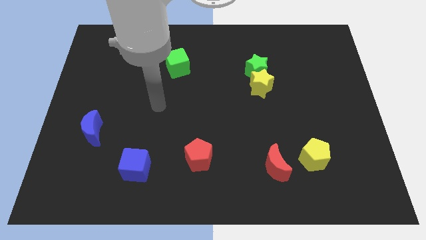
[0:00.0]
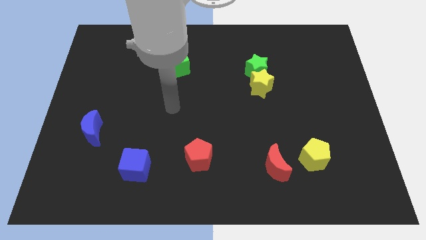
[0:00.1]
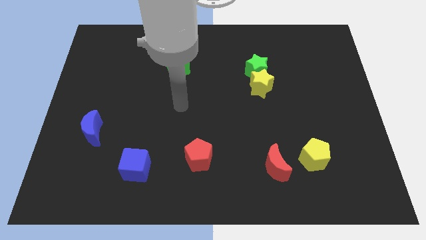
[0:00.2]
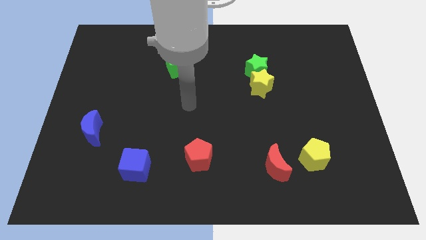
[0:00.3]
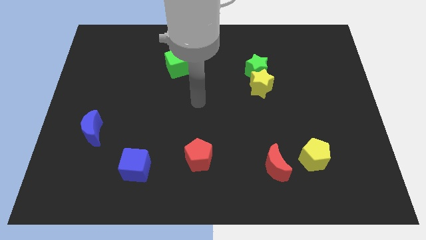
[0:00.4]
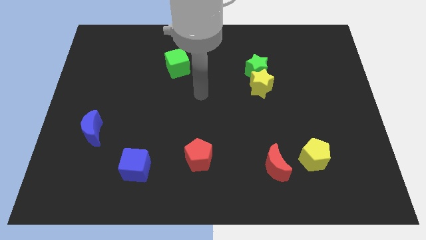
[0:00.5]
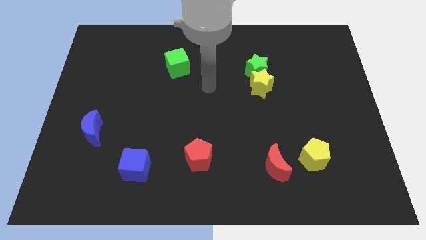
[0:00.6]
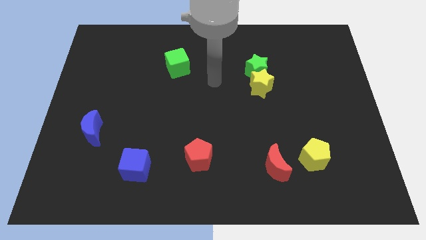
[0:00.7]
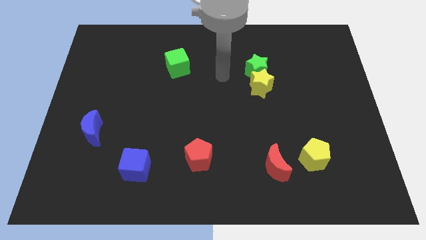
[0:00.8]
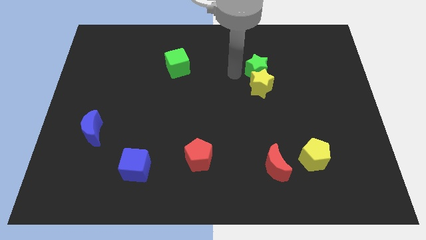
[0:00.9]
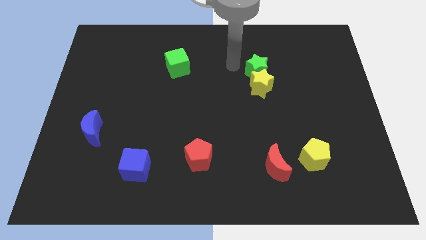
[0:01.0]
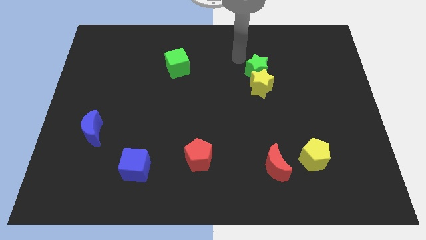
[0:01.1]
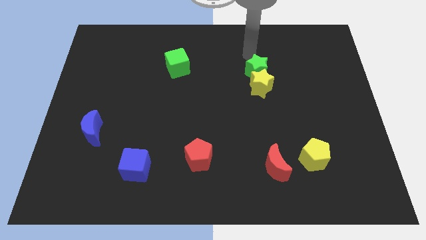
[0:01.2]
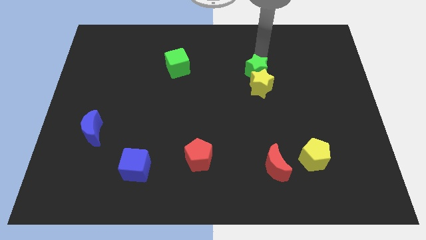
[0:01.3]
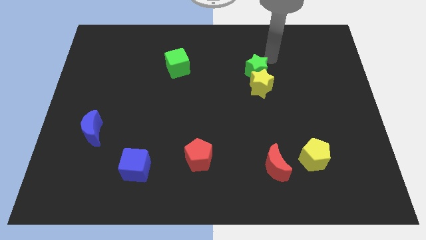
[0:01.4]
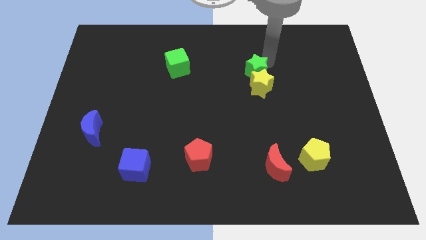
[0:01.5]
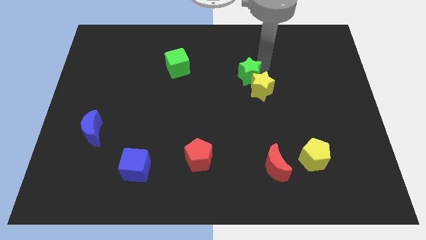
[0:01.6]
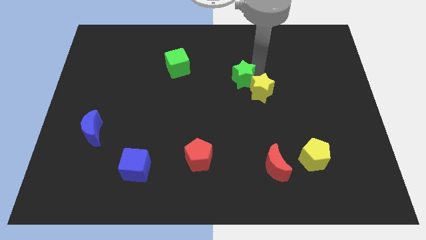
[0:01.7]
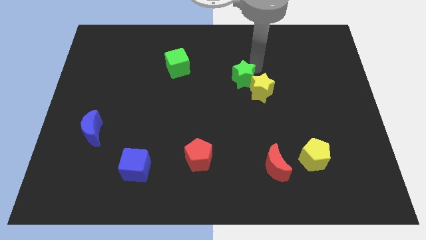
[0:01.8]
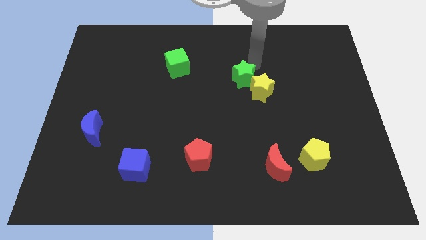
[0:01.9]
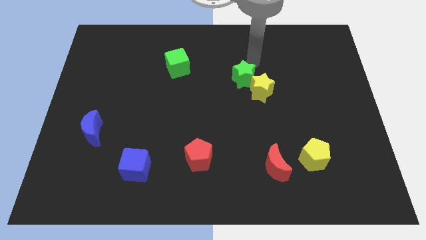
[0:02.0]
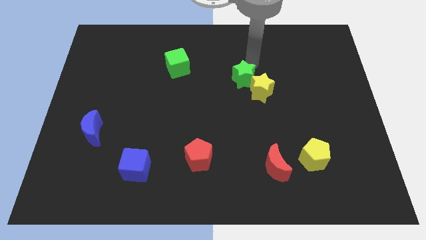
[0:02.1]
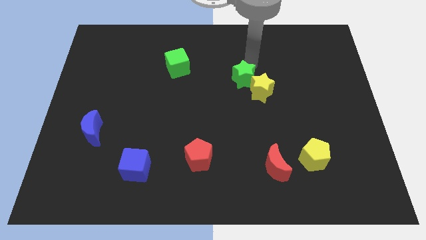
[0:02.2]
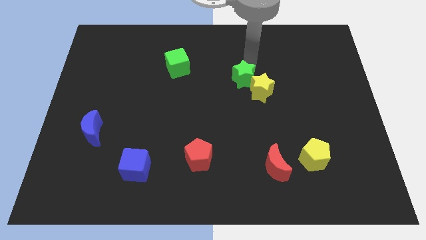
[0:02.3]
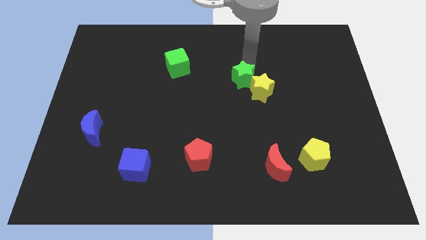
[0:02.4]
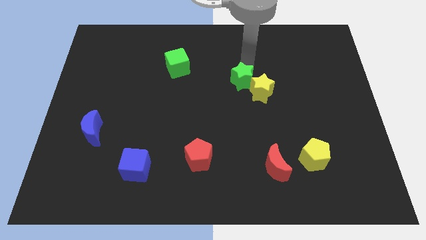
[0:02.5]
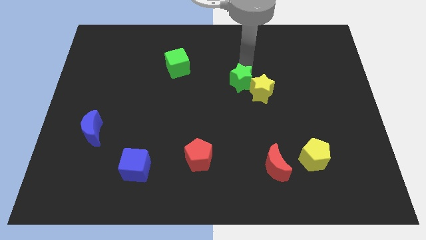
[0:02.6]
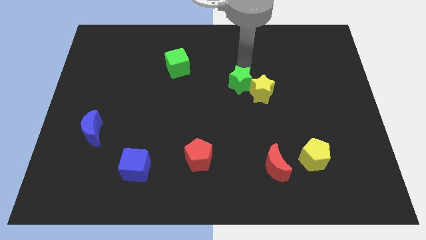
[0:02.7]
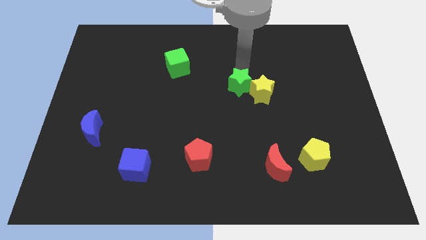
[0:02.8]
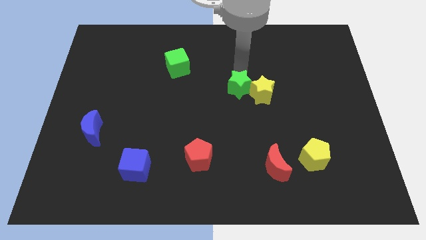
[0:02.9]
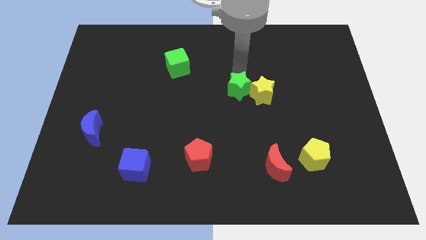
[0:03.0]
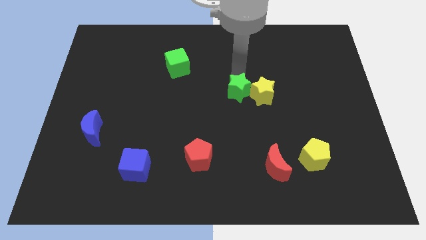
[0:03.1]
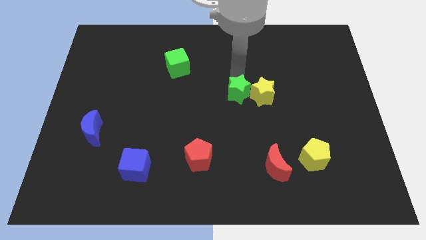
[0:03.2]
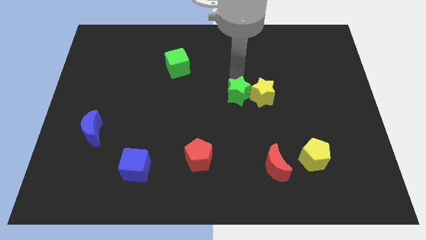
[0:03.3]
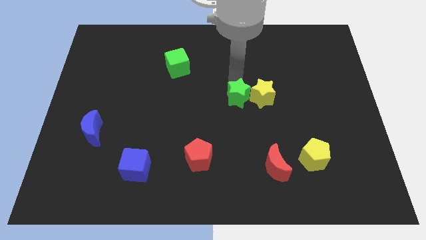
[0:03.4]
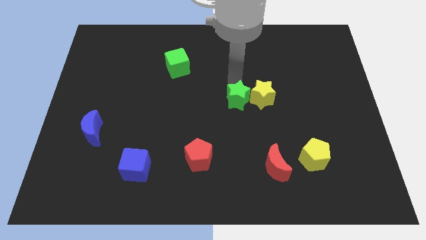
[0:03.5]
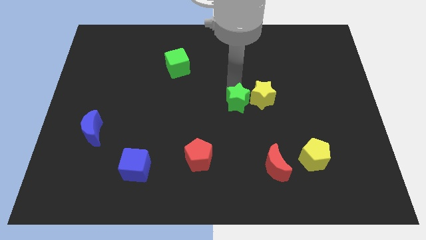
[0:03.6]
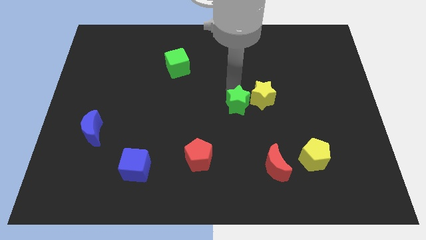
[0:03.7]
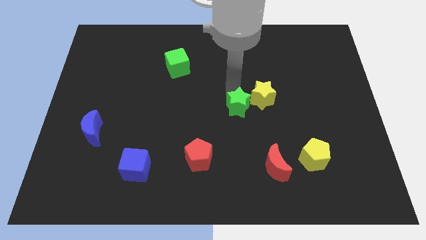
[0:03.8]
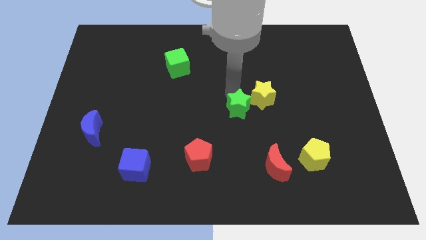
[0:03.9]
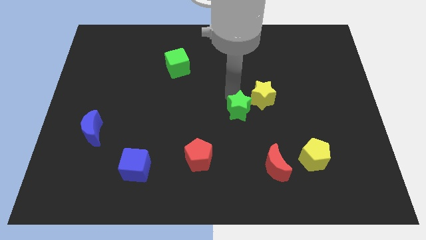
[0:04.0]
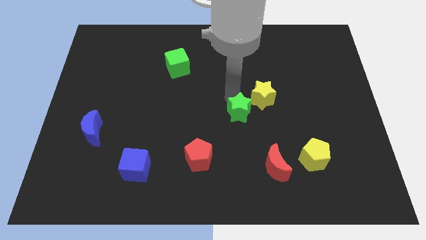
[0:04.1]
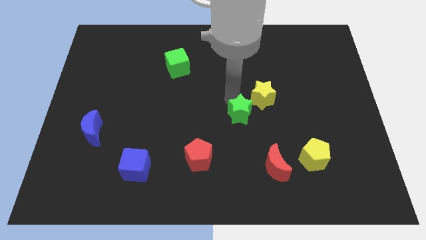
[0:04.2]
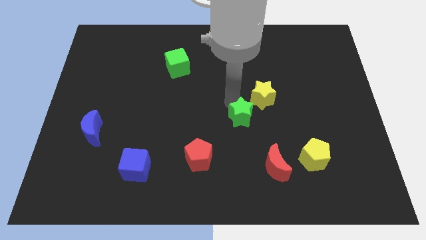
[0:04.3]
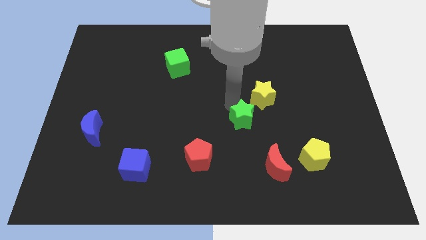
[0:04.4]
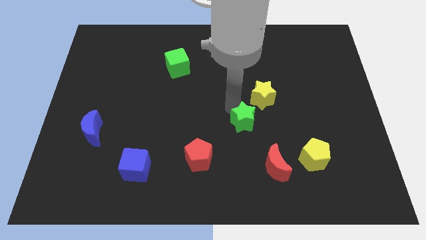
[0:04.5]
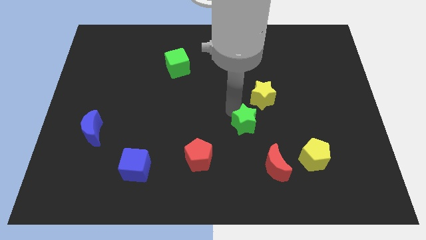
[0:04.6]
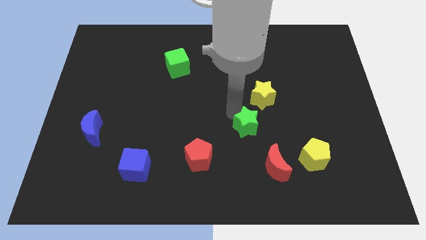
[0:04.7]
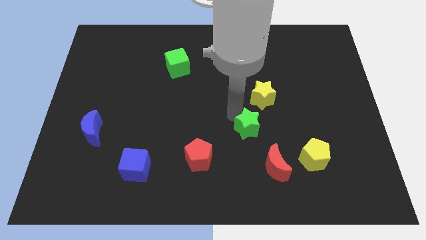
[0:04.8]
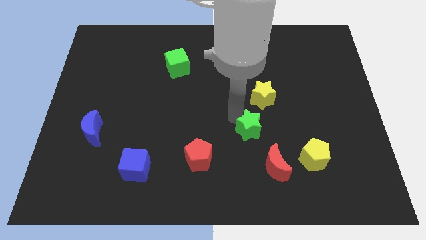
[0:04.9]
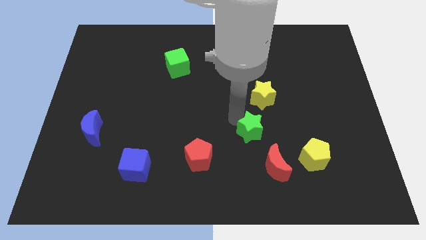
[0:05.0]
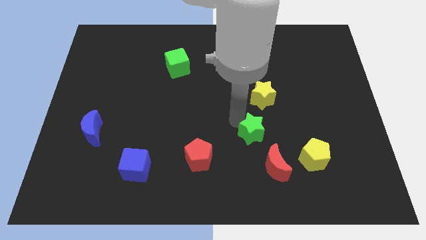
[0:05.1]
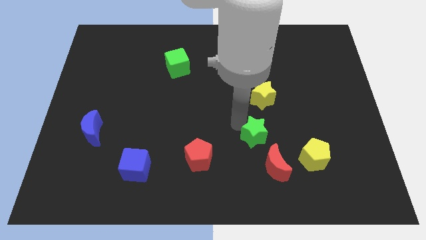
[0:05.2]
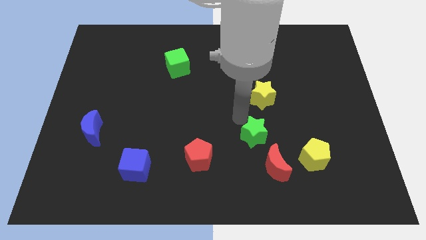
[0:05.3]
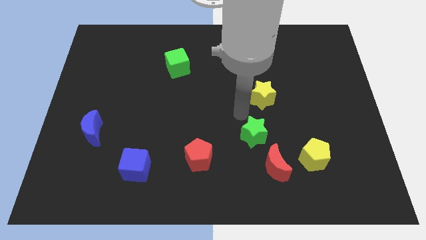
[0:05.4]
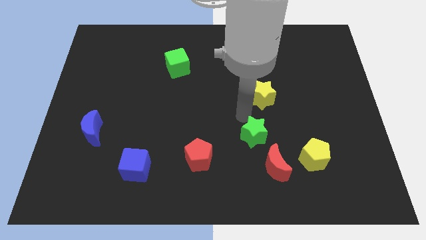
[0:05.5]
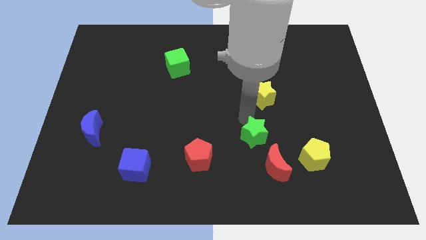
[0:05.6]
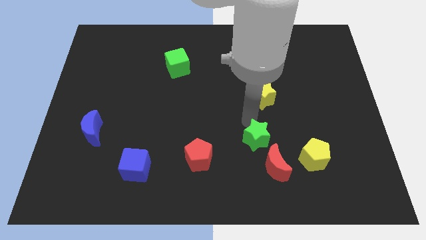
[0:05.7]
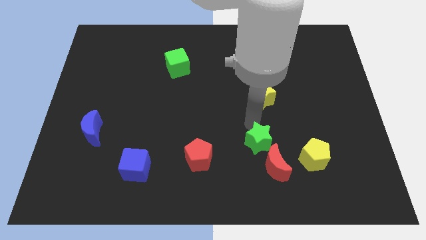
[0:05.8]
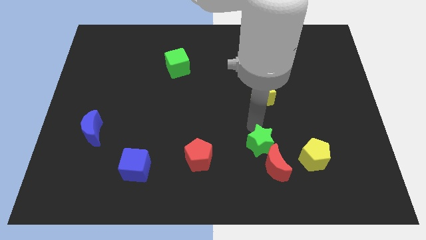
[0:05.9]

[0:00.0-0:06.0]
move the green star next to the red moon

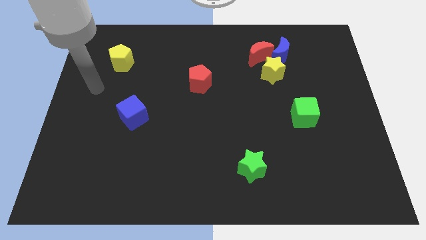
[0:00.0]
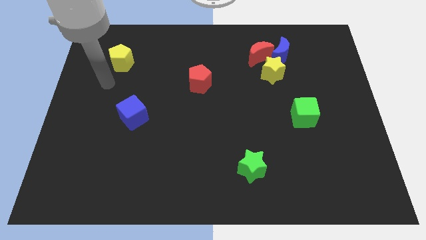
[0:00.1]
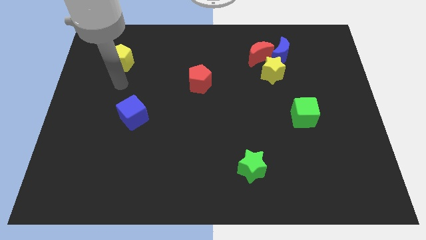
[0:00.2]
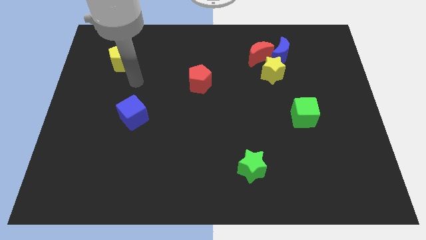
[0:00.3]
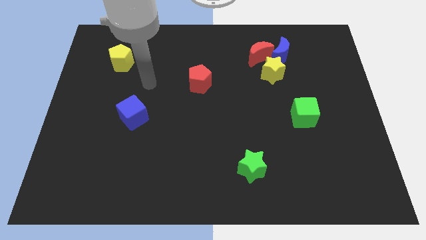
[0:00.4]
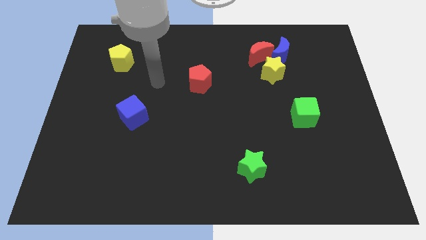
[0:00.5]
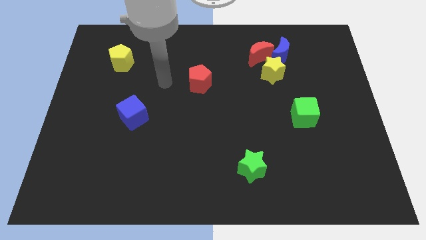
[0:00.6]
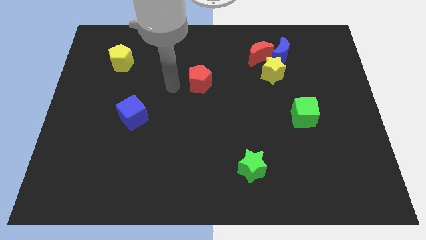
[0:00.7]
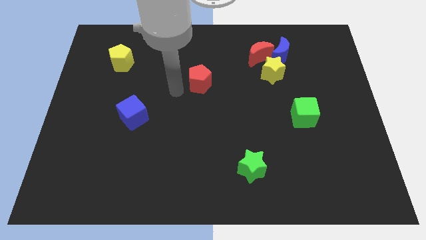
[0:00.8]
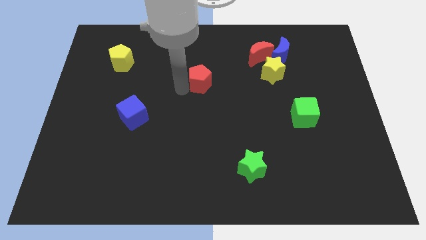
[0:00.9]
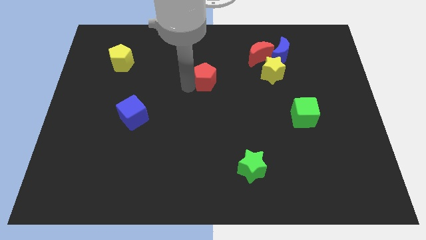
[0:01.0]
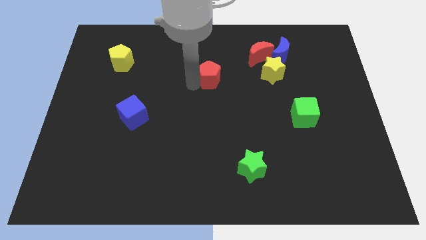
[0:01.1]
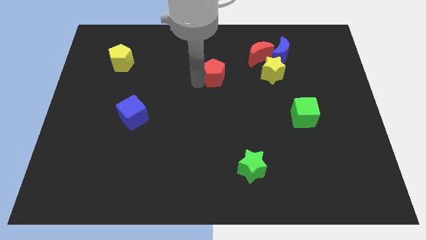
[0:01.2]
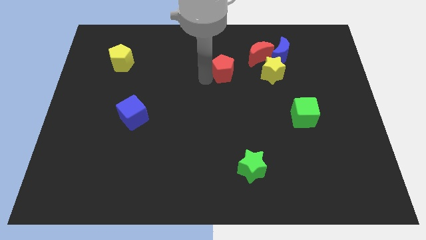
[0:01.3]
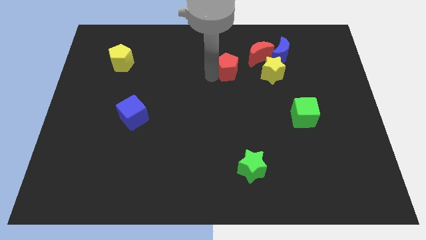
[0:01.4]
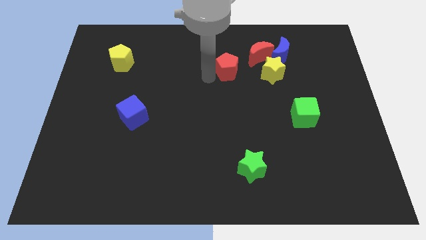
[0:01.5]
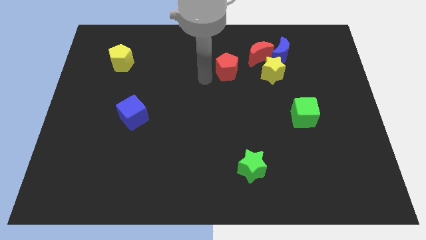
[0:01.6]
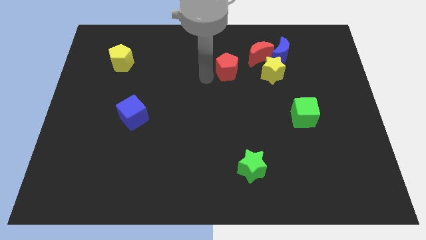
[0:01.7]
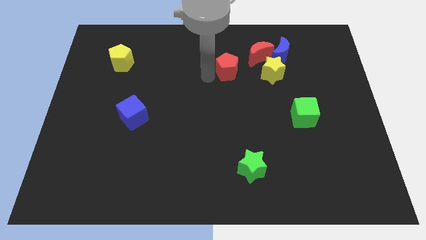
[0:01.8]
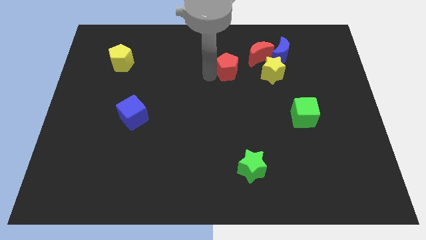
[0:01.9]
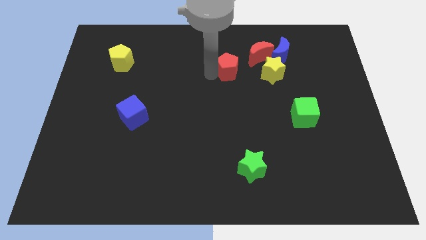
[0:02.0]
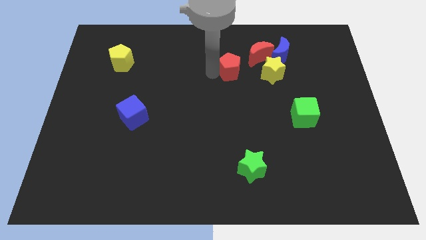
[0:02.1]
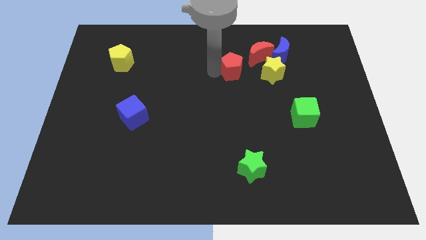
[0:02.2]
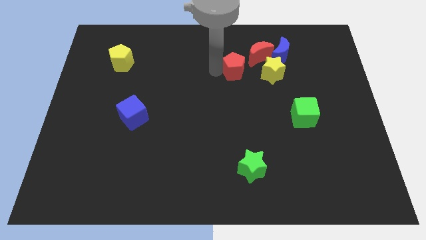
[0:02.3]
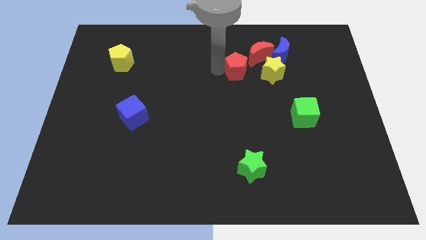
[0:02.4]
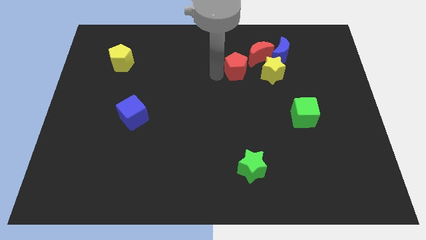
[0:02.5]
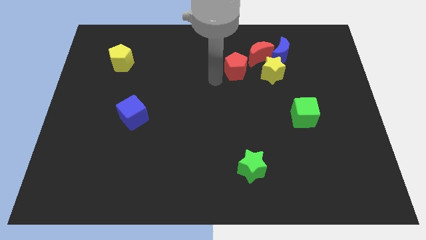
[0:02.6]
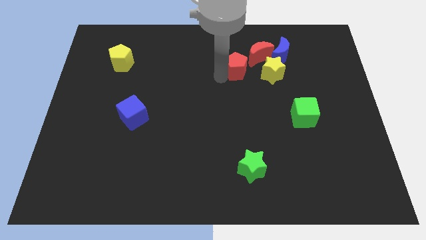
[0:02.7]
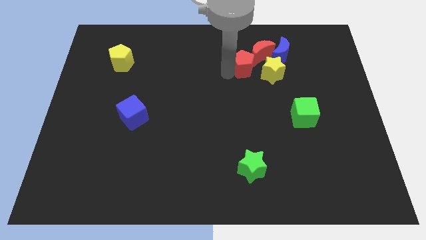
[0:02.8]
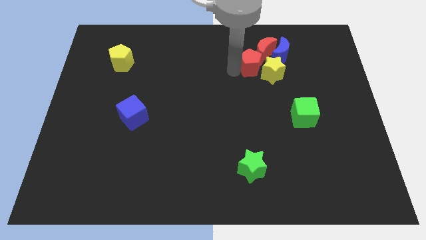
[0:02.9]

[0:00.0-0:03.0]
move the red pentagon next to the red moon
